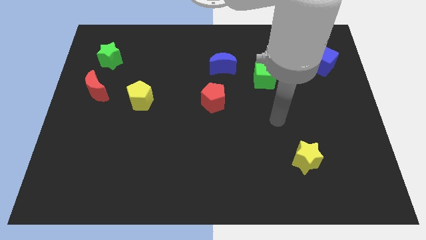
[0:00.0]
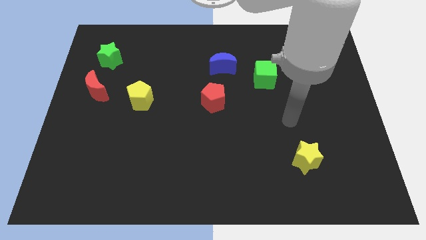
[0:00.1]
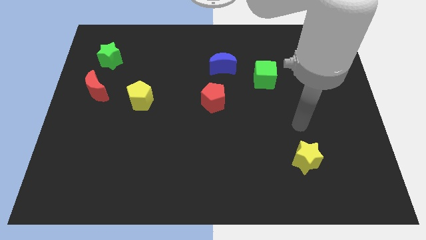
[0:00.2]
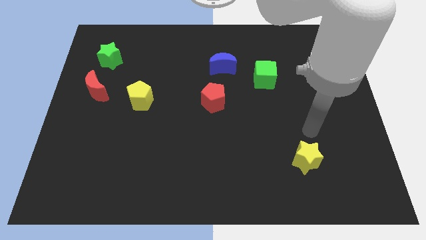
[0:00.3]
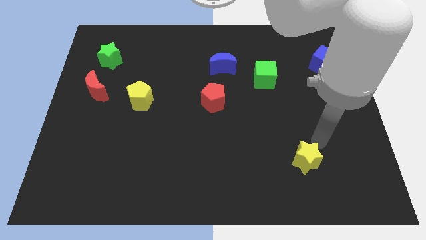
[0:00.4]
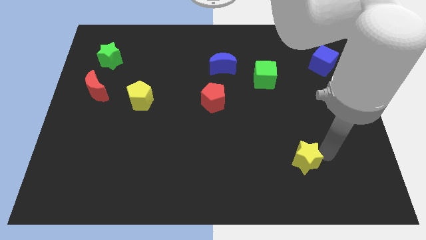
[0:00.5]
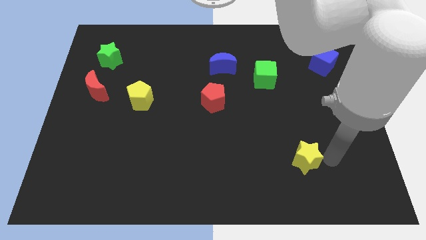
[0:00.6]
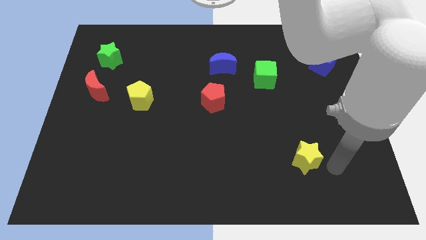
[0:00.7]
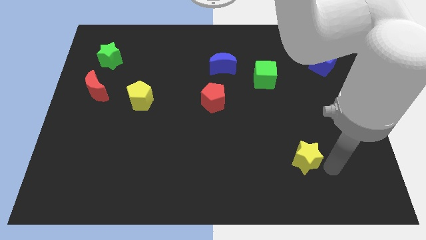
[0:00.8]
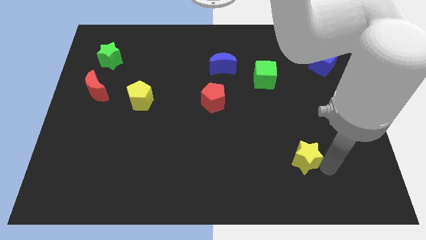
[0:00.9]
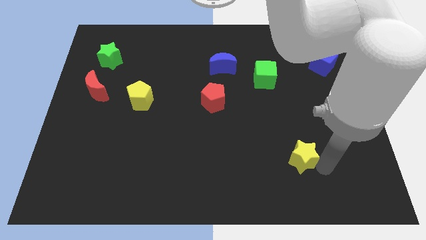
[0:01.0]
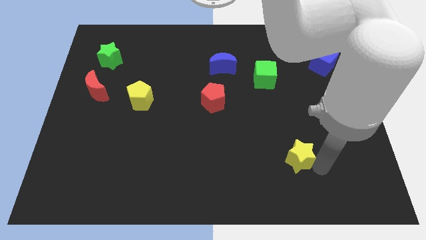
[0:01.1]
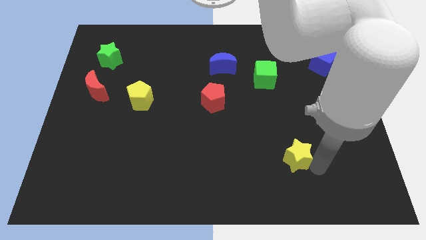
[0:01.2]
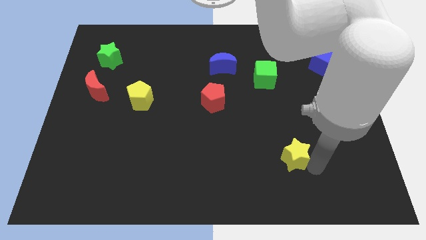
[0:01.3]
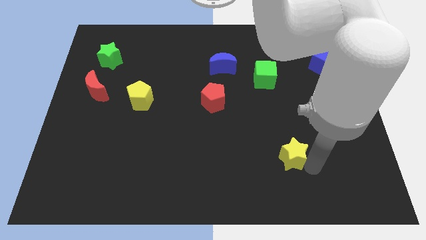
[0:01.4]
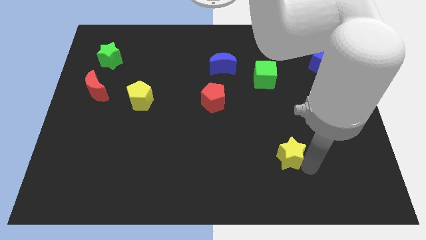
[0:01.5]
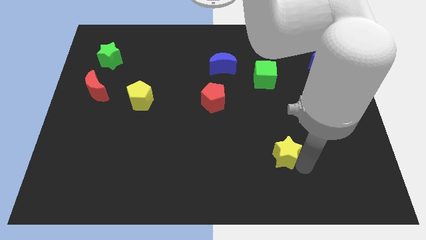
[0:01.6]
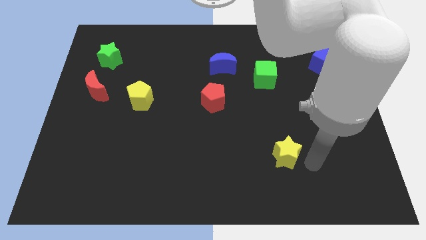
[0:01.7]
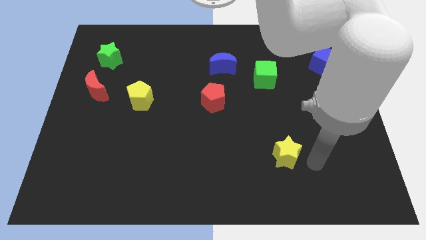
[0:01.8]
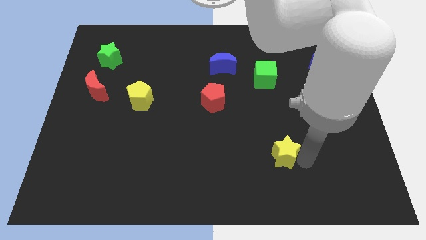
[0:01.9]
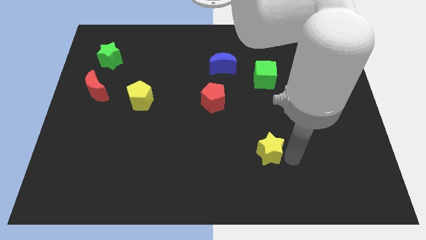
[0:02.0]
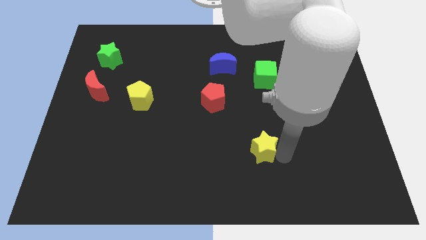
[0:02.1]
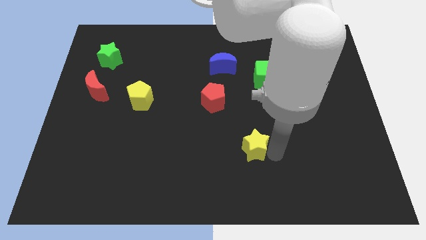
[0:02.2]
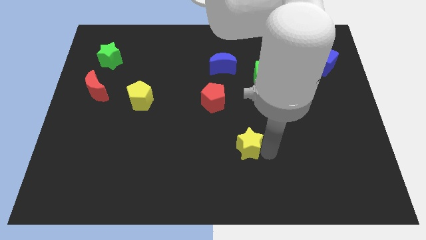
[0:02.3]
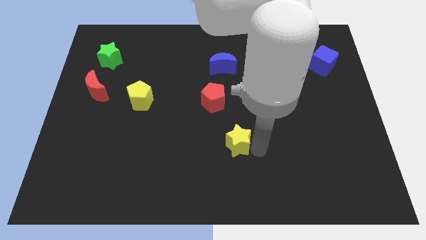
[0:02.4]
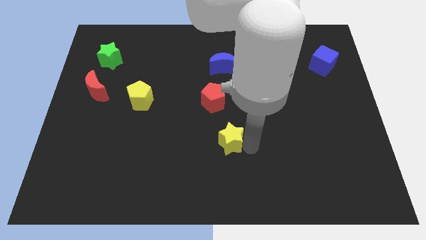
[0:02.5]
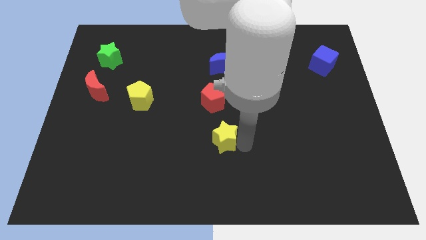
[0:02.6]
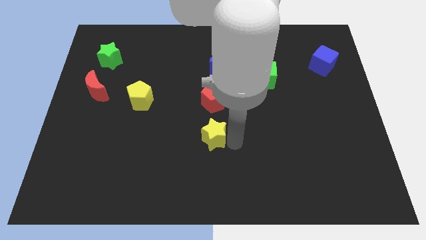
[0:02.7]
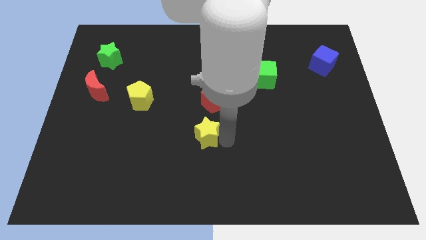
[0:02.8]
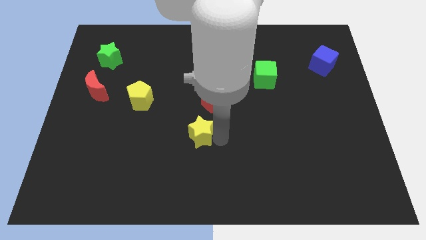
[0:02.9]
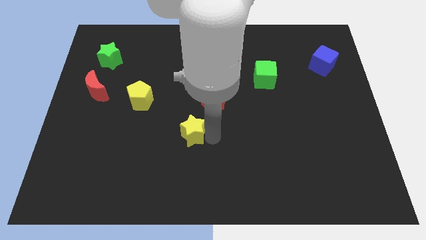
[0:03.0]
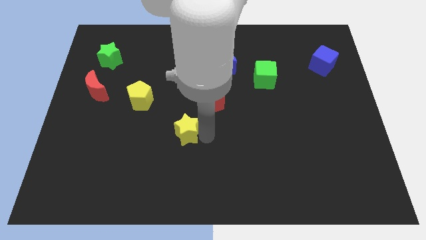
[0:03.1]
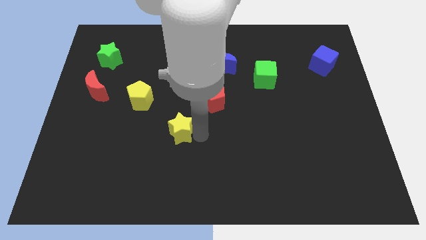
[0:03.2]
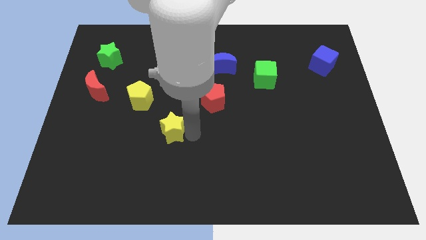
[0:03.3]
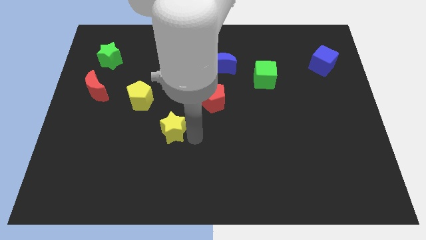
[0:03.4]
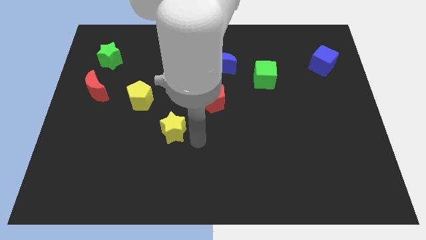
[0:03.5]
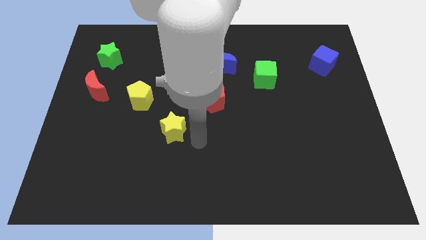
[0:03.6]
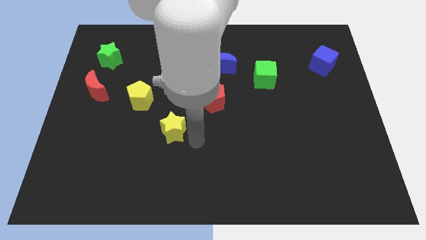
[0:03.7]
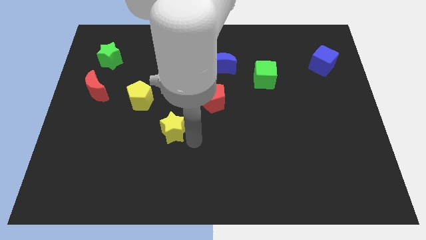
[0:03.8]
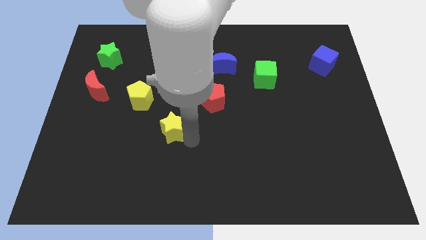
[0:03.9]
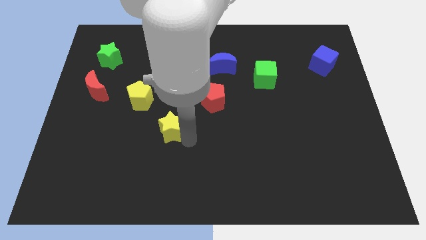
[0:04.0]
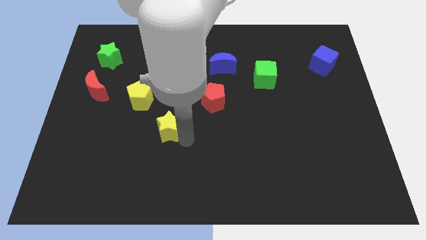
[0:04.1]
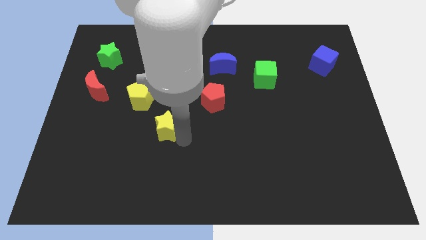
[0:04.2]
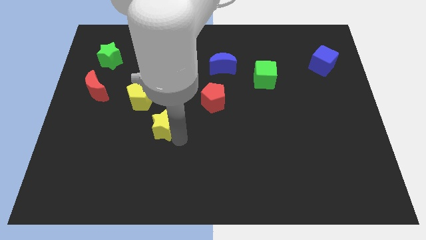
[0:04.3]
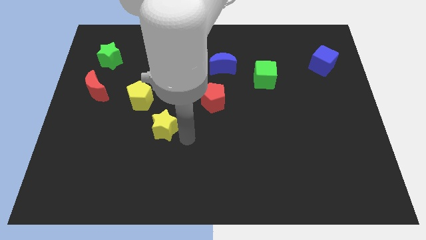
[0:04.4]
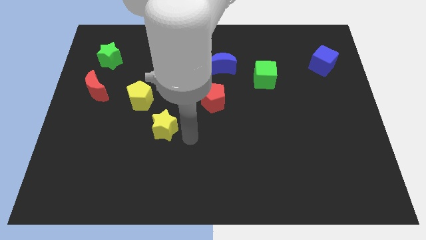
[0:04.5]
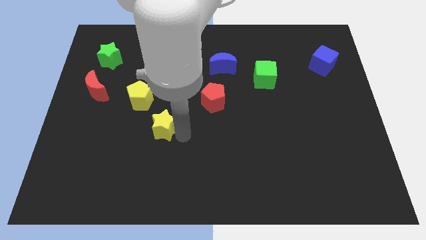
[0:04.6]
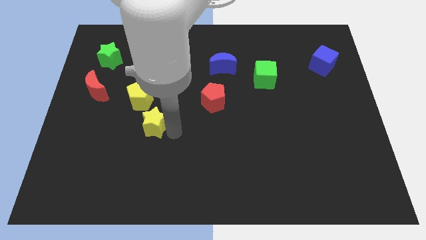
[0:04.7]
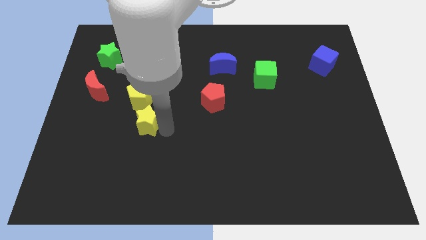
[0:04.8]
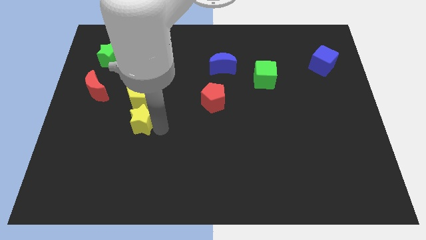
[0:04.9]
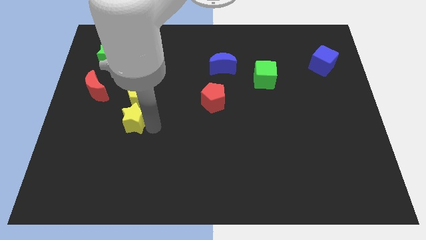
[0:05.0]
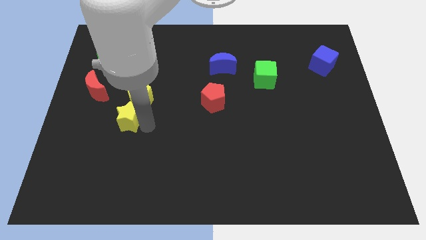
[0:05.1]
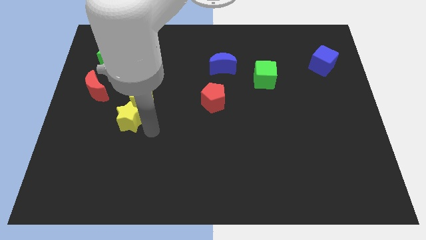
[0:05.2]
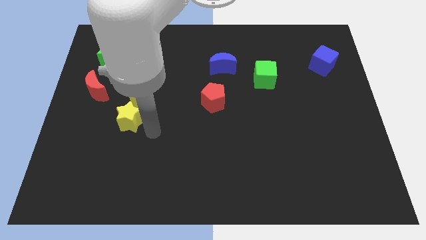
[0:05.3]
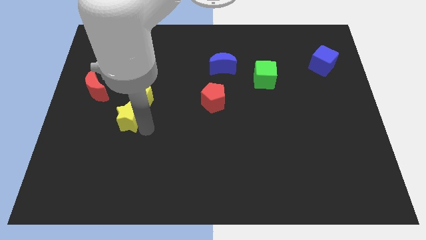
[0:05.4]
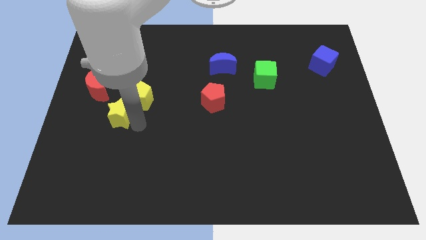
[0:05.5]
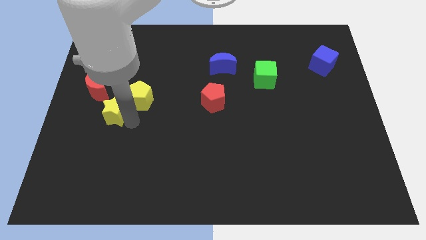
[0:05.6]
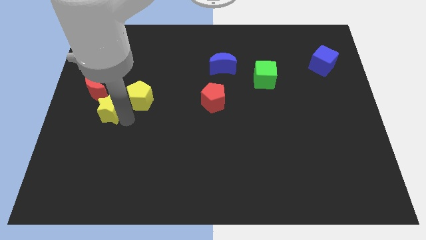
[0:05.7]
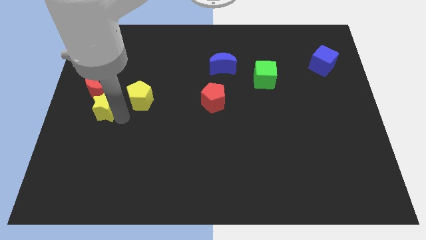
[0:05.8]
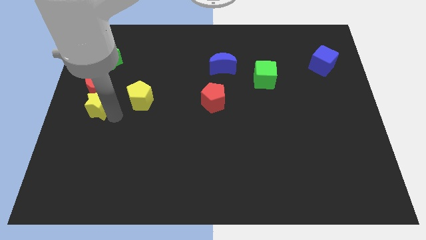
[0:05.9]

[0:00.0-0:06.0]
put the yellow star to the bottom side of the green star
